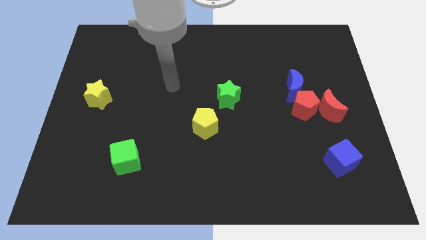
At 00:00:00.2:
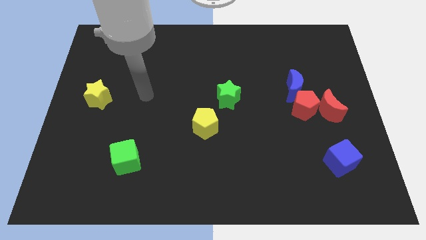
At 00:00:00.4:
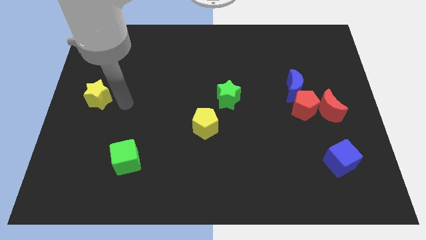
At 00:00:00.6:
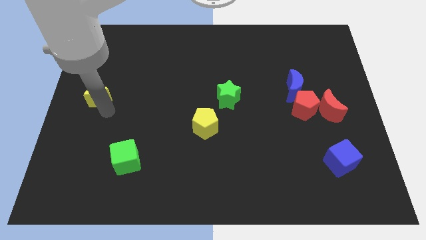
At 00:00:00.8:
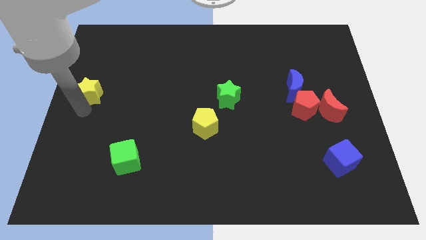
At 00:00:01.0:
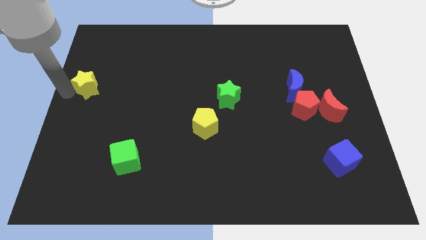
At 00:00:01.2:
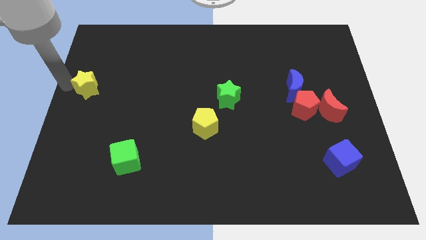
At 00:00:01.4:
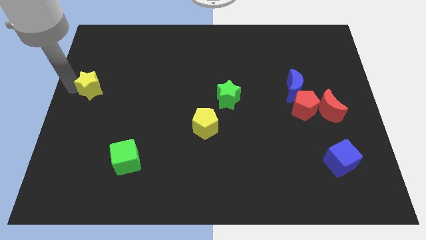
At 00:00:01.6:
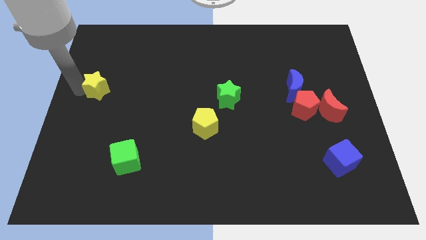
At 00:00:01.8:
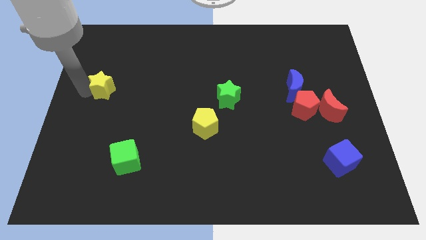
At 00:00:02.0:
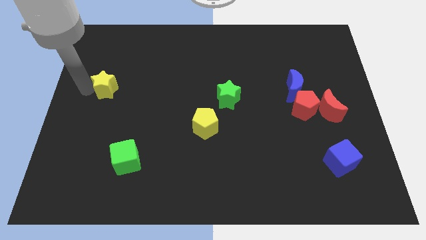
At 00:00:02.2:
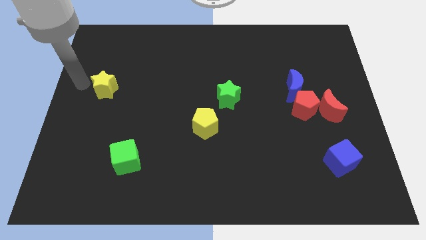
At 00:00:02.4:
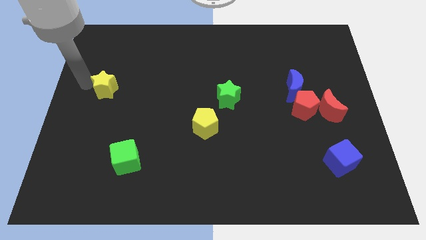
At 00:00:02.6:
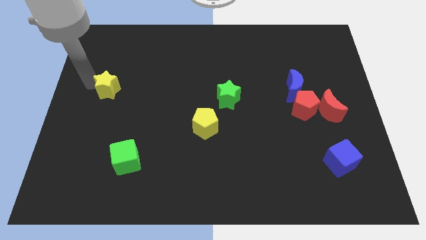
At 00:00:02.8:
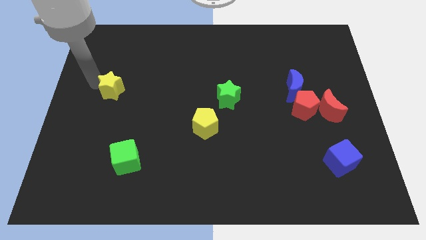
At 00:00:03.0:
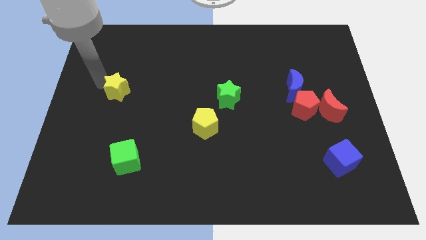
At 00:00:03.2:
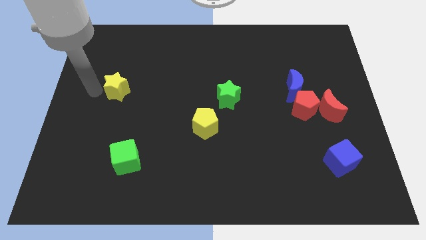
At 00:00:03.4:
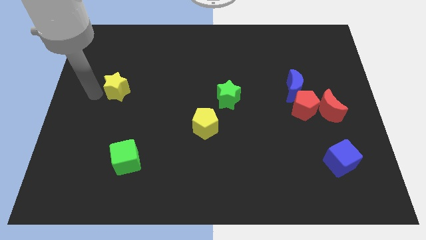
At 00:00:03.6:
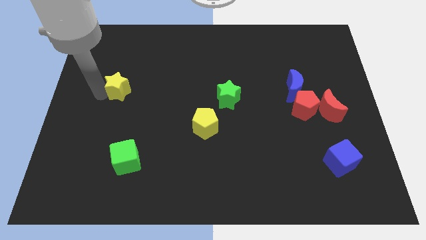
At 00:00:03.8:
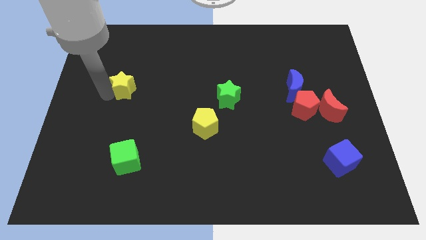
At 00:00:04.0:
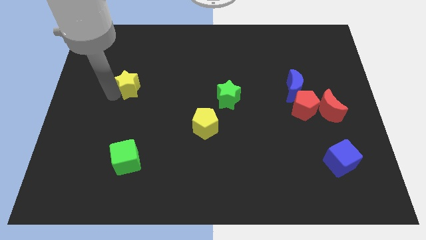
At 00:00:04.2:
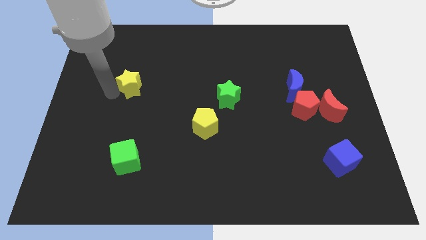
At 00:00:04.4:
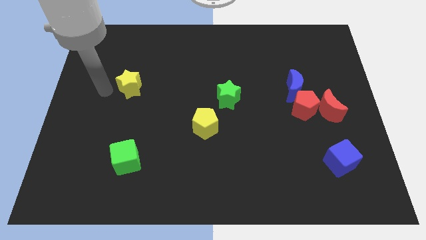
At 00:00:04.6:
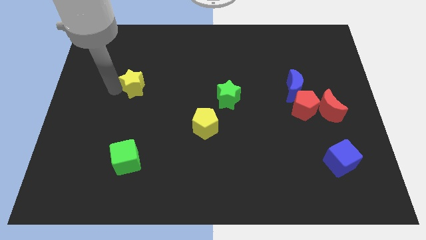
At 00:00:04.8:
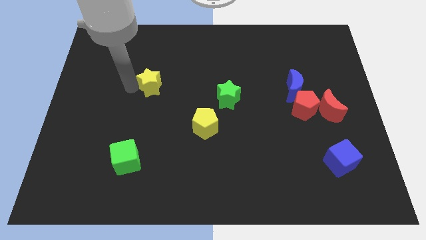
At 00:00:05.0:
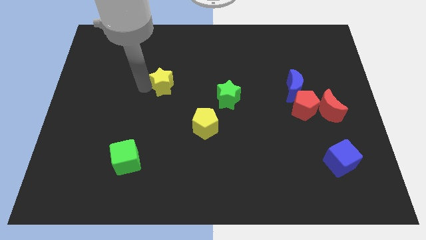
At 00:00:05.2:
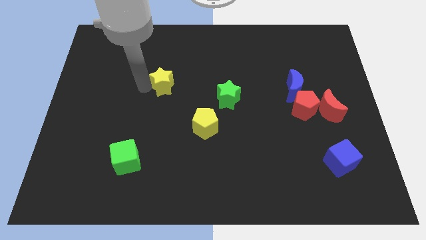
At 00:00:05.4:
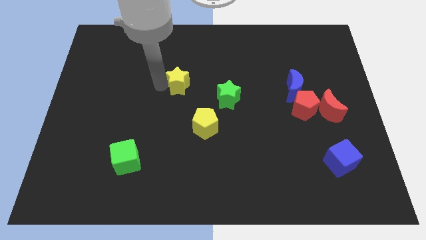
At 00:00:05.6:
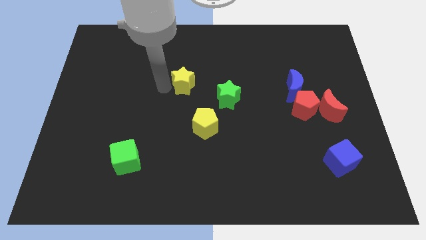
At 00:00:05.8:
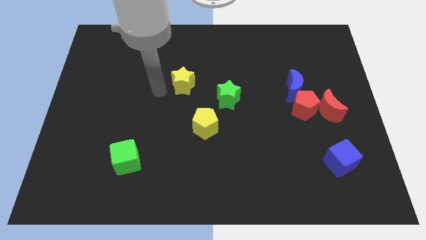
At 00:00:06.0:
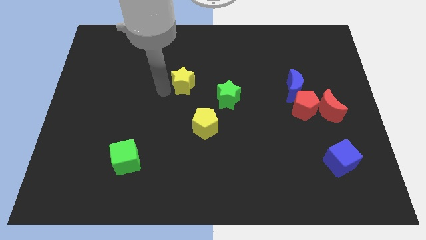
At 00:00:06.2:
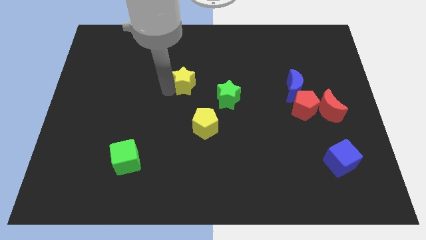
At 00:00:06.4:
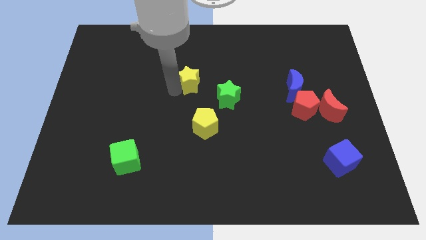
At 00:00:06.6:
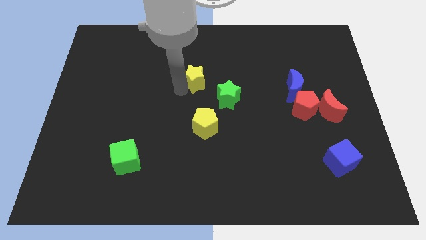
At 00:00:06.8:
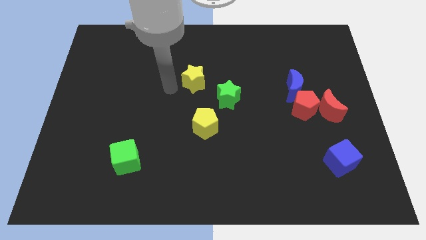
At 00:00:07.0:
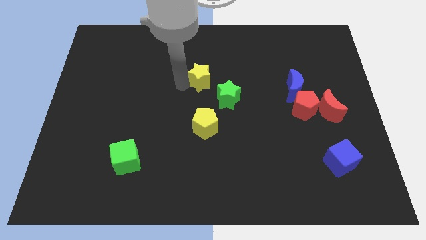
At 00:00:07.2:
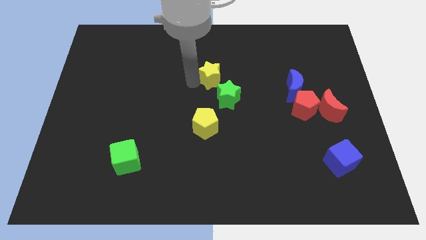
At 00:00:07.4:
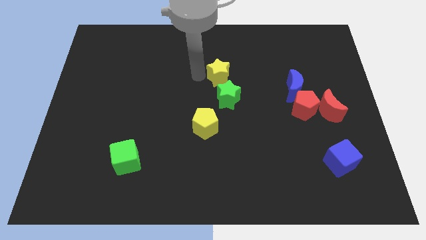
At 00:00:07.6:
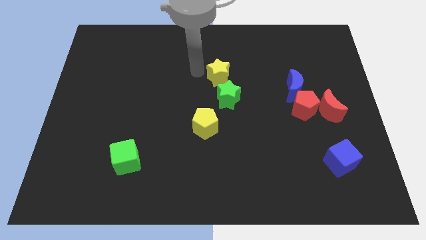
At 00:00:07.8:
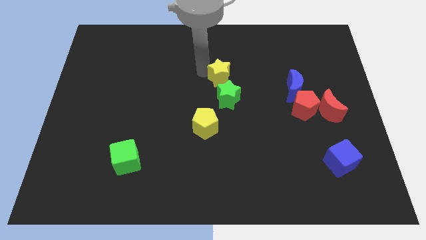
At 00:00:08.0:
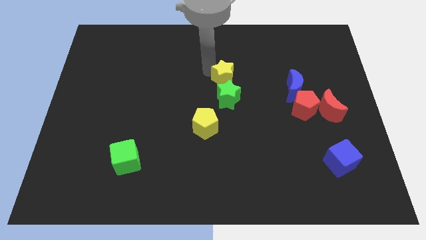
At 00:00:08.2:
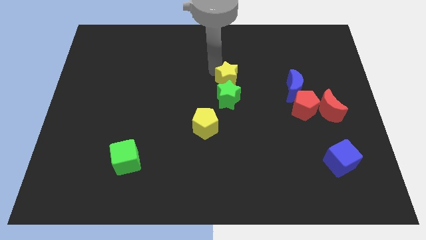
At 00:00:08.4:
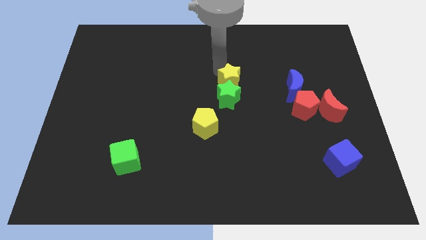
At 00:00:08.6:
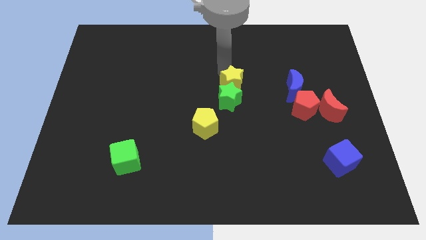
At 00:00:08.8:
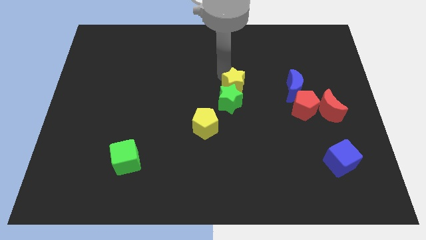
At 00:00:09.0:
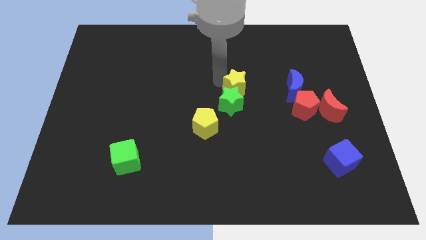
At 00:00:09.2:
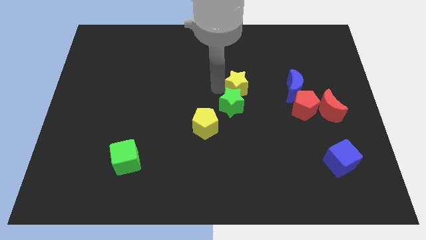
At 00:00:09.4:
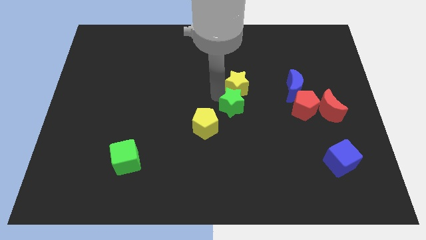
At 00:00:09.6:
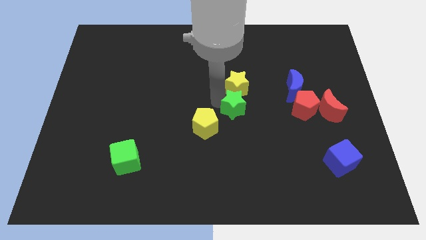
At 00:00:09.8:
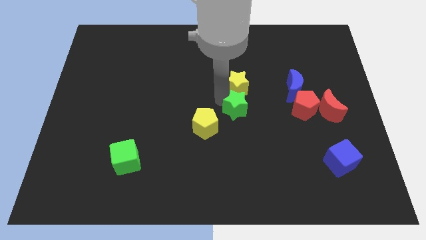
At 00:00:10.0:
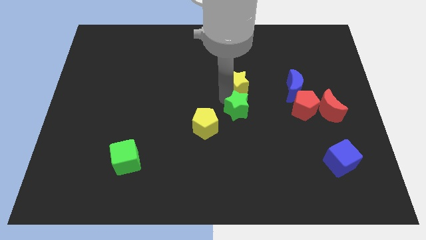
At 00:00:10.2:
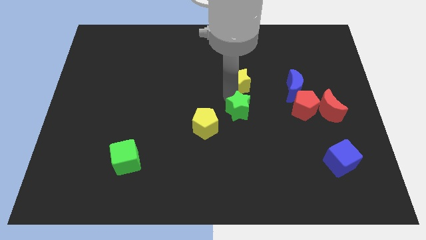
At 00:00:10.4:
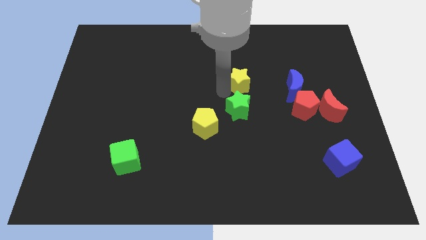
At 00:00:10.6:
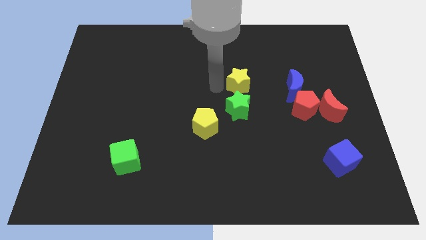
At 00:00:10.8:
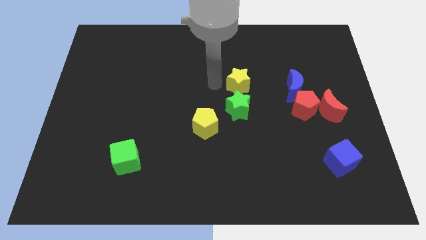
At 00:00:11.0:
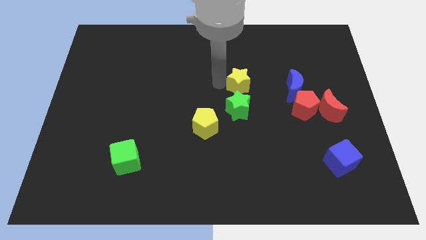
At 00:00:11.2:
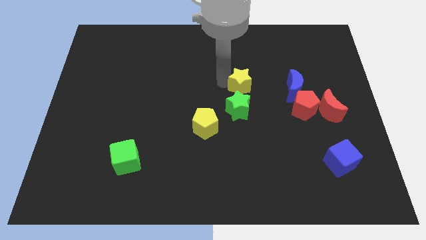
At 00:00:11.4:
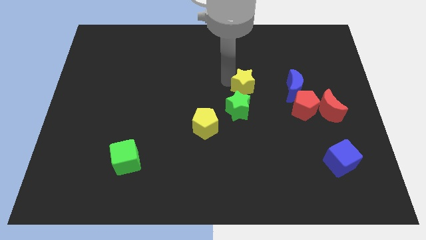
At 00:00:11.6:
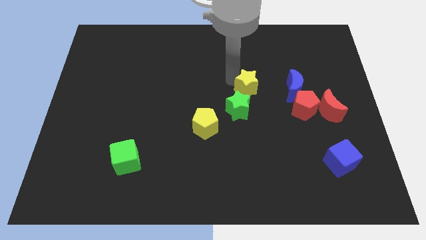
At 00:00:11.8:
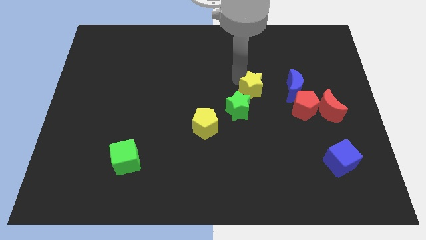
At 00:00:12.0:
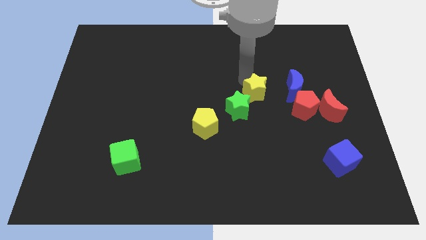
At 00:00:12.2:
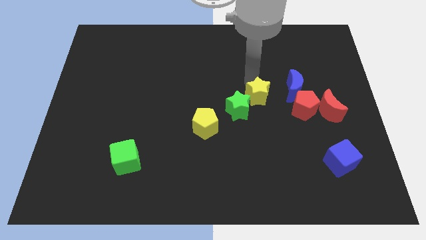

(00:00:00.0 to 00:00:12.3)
slide the yellow star diagonally up and to the left of the red pentagon

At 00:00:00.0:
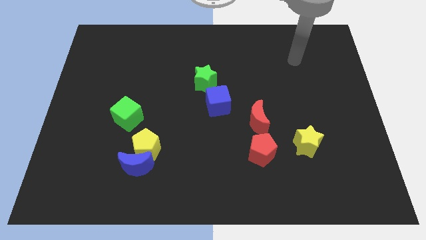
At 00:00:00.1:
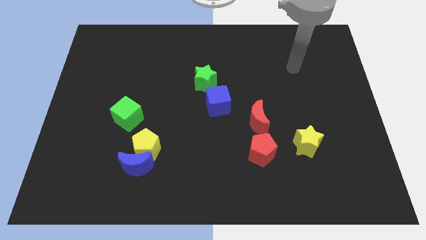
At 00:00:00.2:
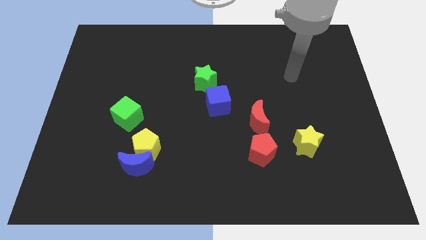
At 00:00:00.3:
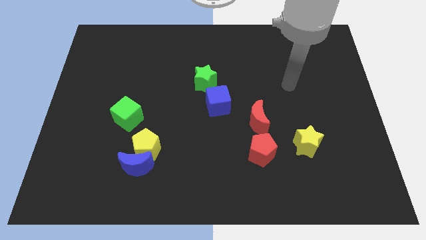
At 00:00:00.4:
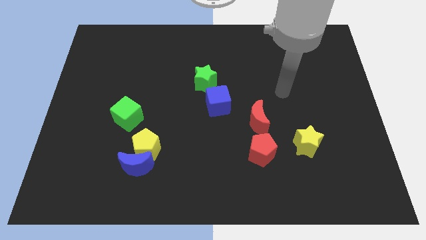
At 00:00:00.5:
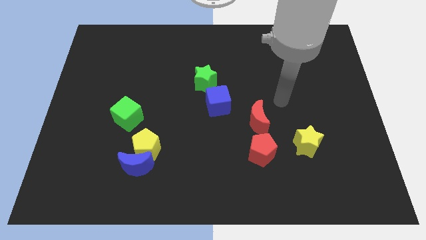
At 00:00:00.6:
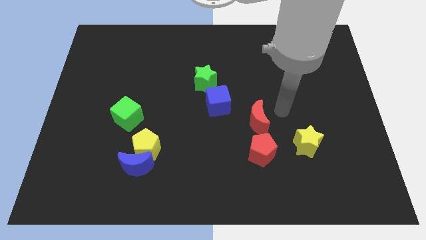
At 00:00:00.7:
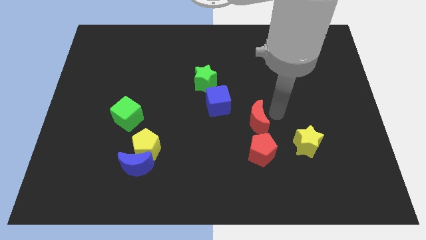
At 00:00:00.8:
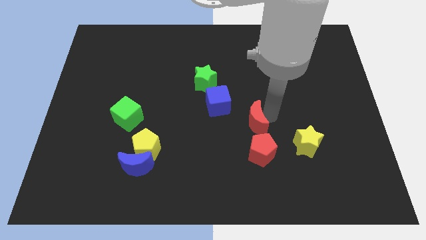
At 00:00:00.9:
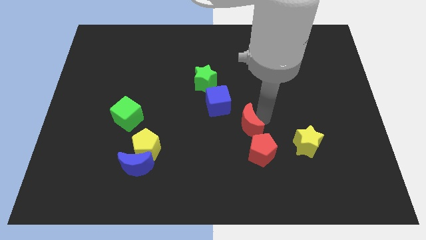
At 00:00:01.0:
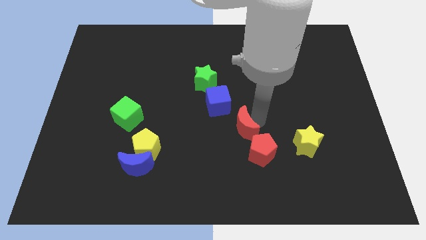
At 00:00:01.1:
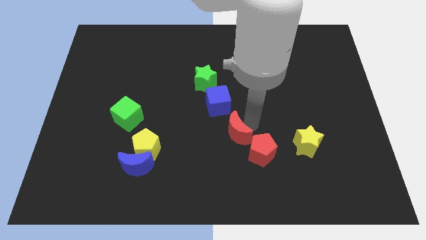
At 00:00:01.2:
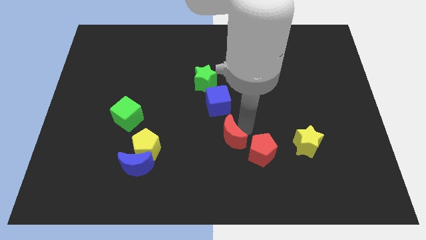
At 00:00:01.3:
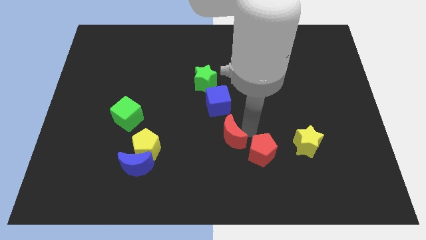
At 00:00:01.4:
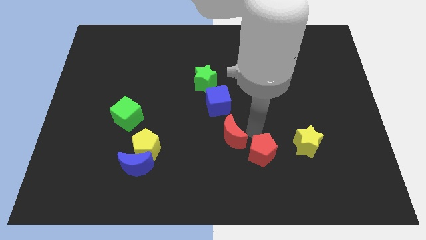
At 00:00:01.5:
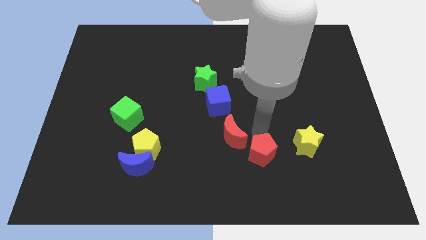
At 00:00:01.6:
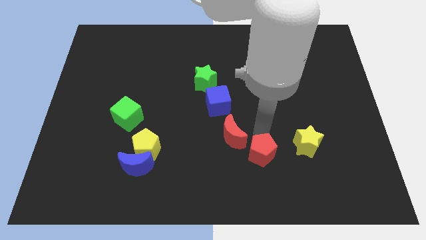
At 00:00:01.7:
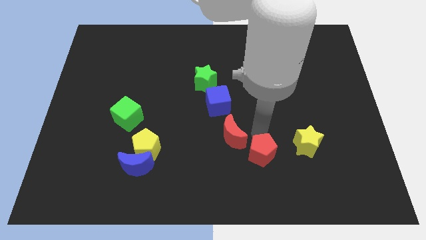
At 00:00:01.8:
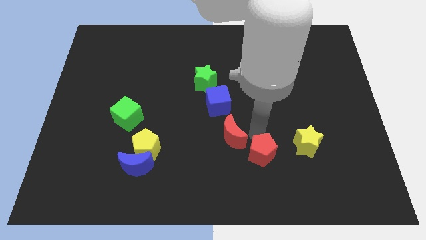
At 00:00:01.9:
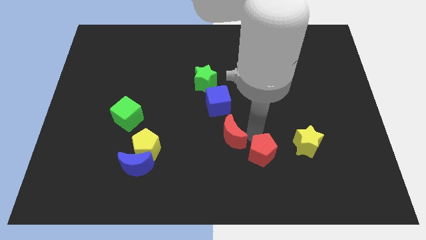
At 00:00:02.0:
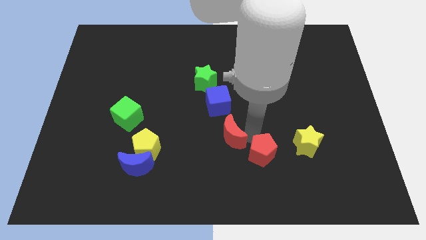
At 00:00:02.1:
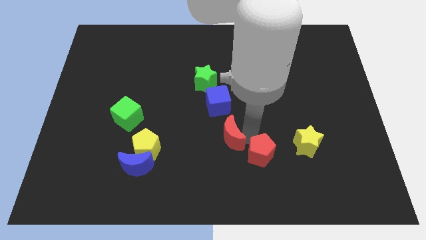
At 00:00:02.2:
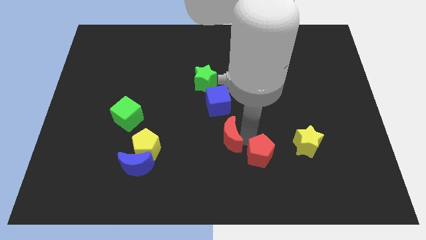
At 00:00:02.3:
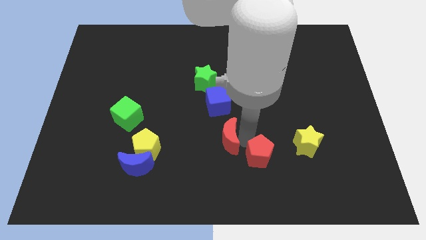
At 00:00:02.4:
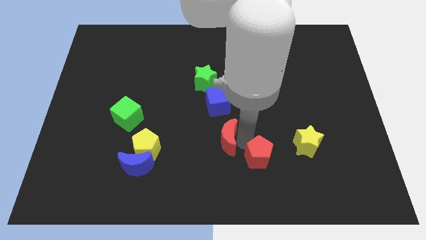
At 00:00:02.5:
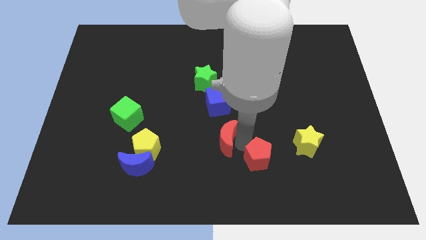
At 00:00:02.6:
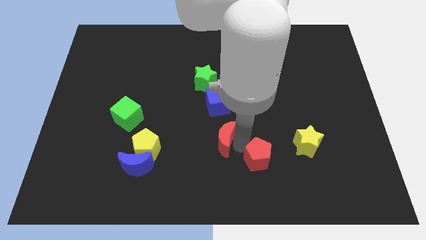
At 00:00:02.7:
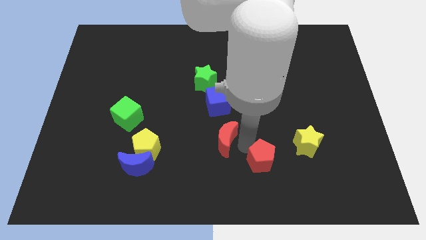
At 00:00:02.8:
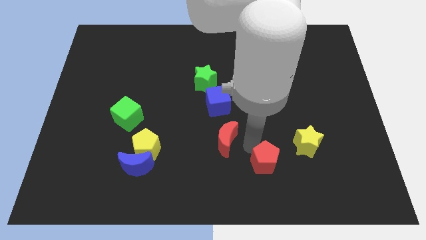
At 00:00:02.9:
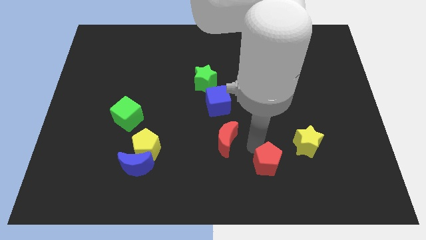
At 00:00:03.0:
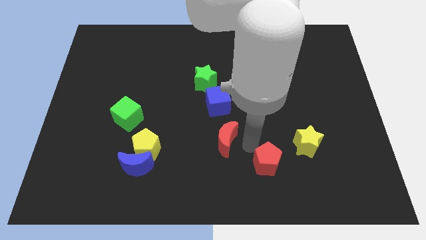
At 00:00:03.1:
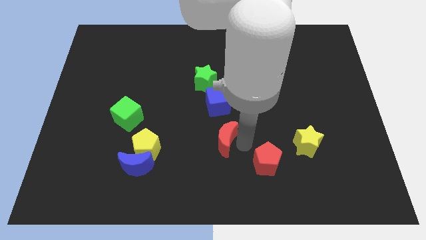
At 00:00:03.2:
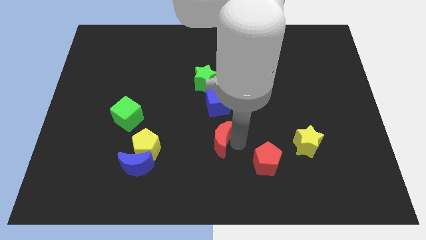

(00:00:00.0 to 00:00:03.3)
put the red moon to the right side of the yellow pentagon
